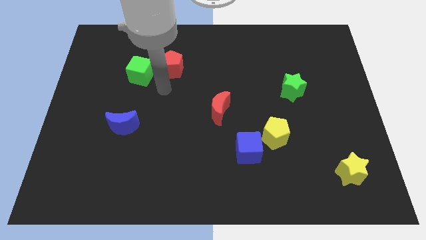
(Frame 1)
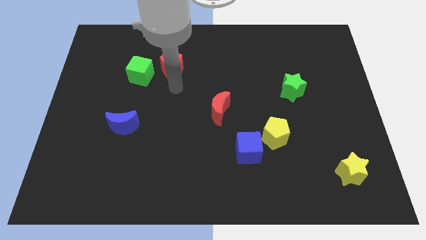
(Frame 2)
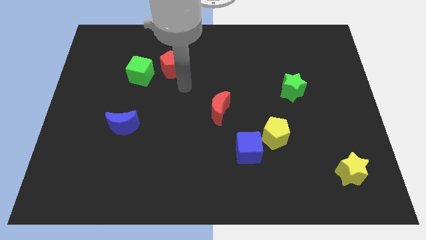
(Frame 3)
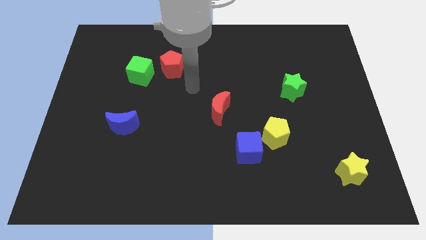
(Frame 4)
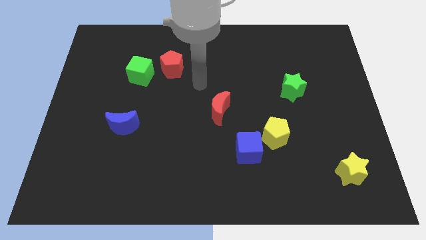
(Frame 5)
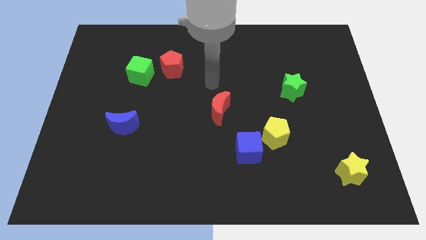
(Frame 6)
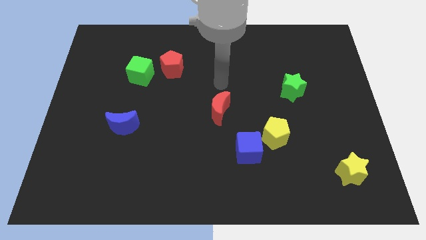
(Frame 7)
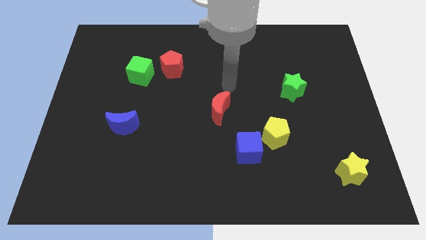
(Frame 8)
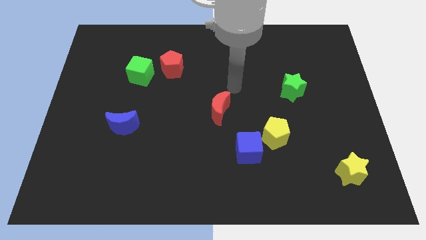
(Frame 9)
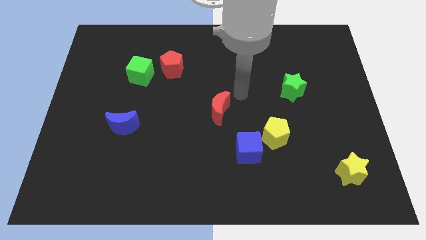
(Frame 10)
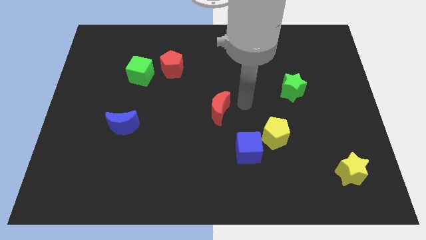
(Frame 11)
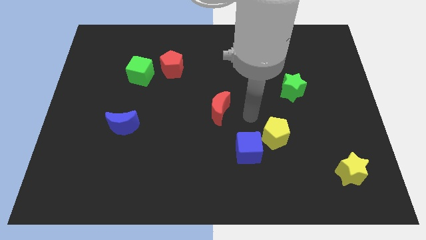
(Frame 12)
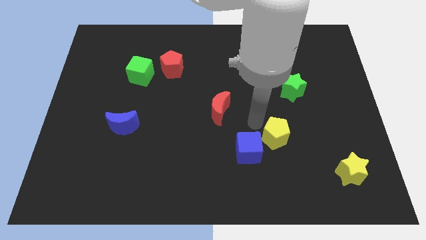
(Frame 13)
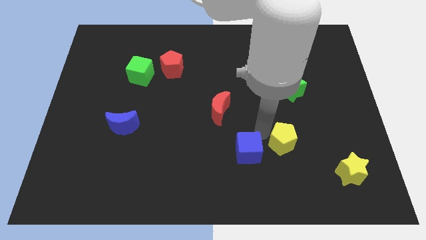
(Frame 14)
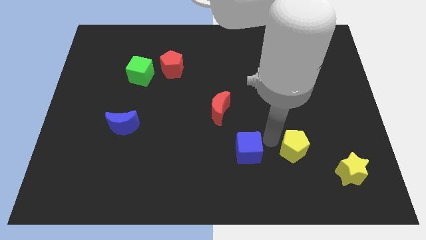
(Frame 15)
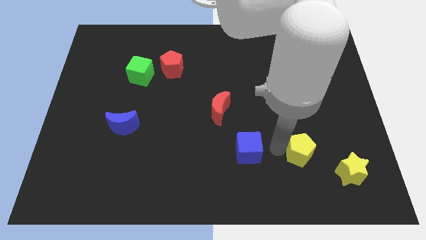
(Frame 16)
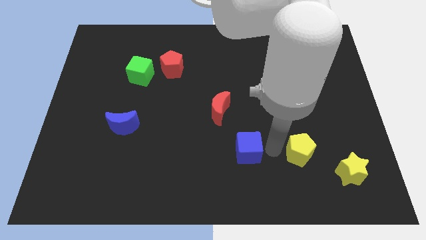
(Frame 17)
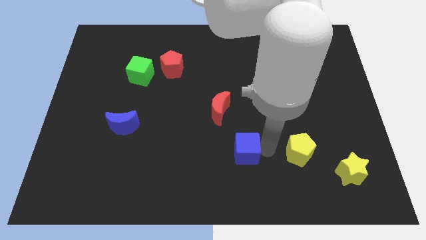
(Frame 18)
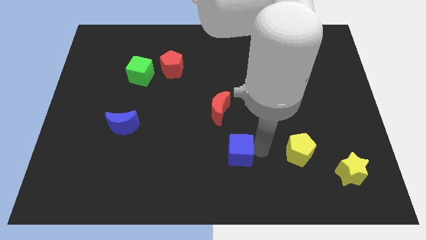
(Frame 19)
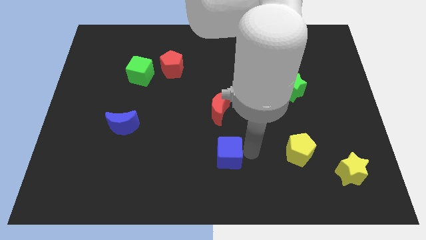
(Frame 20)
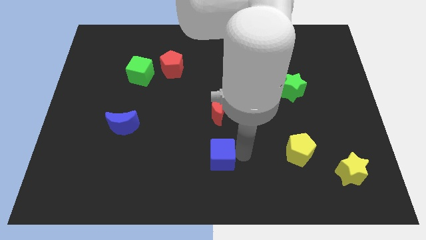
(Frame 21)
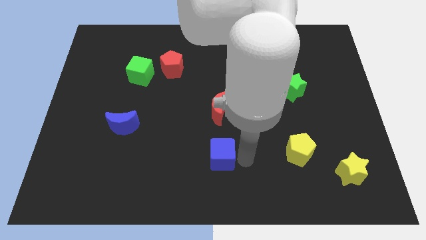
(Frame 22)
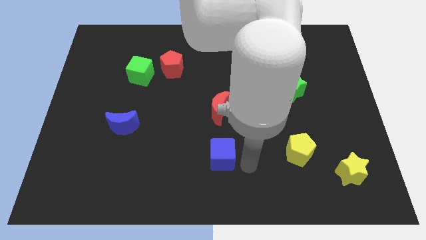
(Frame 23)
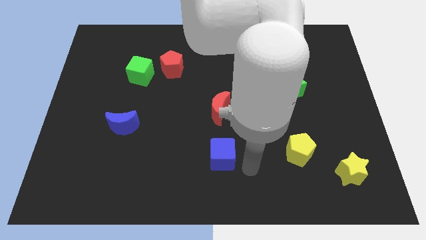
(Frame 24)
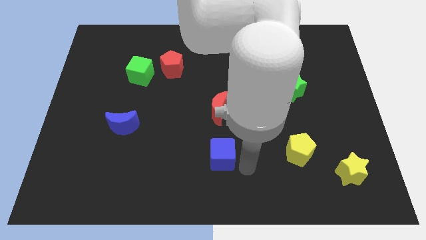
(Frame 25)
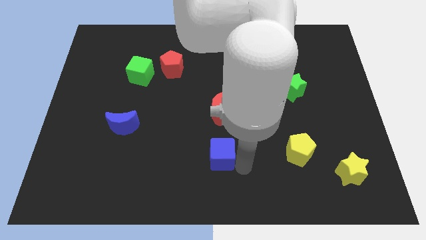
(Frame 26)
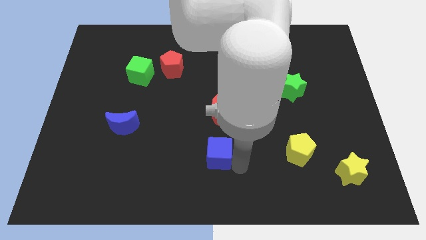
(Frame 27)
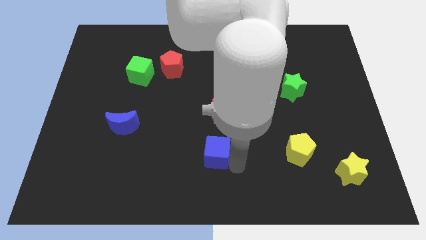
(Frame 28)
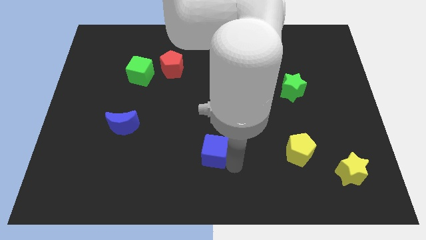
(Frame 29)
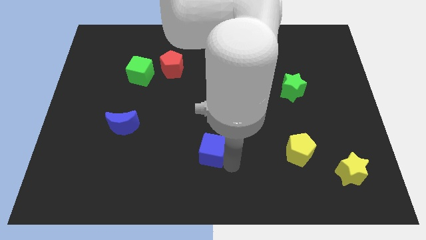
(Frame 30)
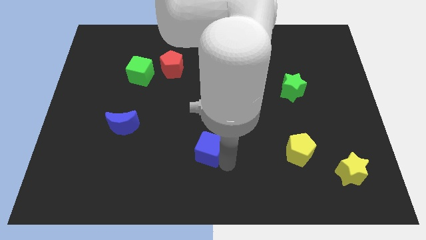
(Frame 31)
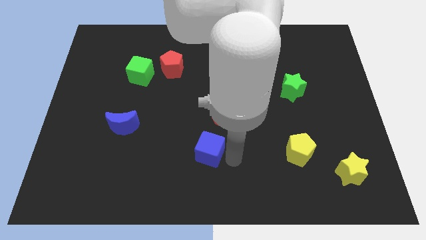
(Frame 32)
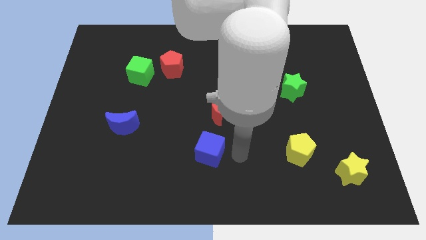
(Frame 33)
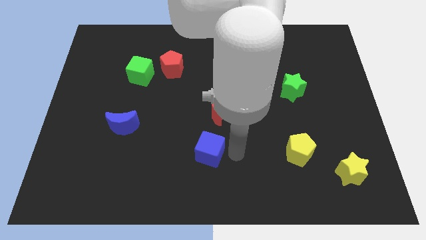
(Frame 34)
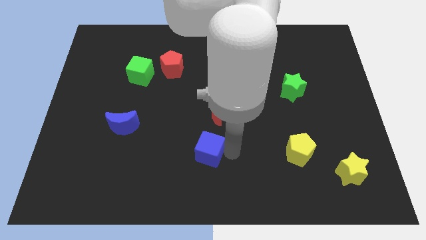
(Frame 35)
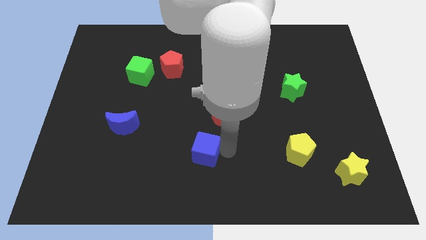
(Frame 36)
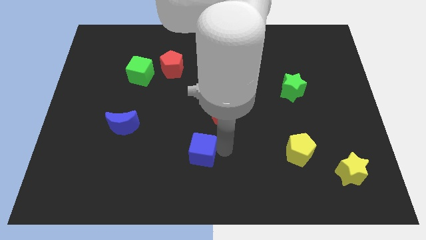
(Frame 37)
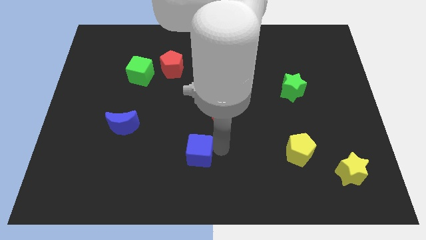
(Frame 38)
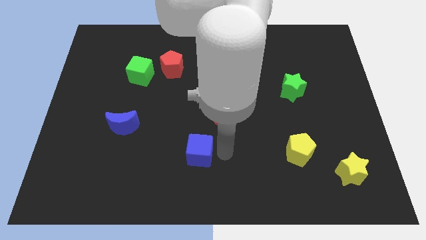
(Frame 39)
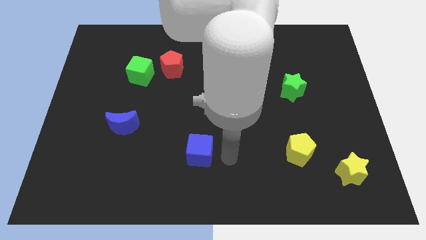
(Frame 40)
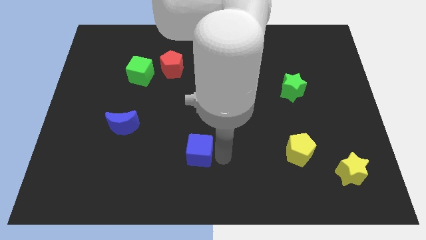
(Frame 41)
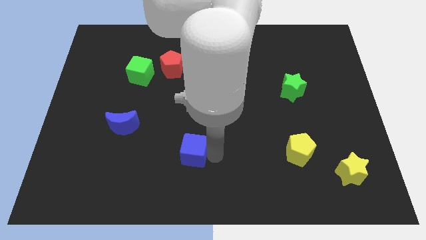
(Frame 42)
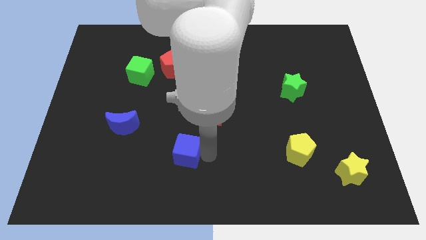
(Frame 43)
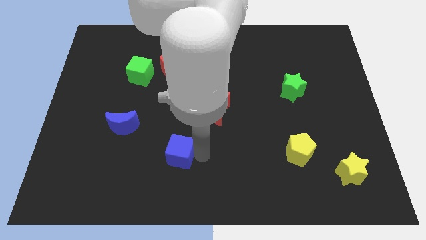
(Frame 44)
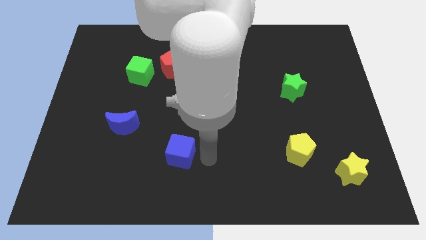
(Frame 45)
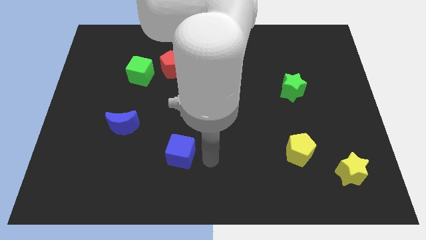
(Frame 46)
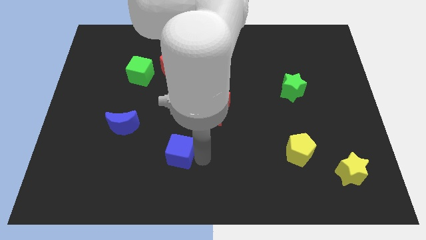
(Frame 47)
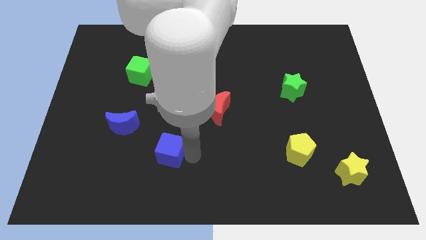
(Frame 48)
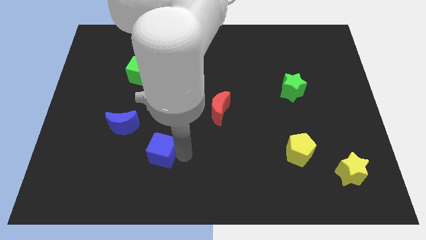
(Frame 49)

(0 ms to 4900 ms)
move the blue cube to the bottom right side of the blue moon
